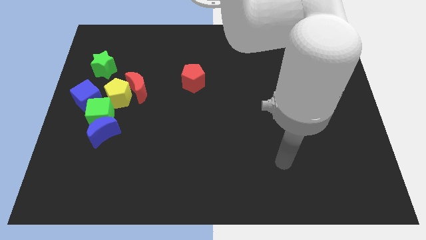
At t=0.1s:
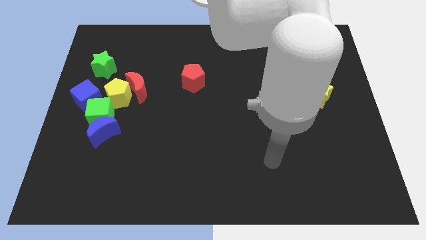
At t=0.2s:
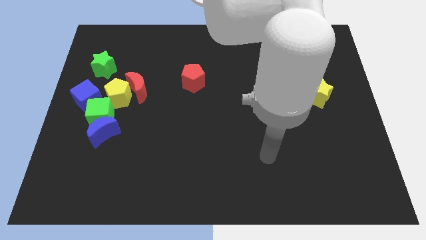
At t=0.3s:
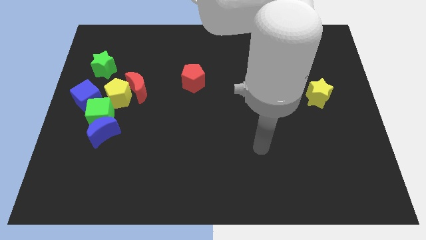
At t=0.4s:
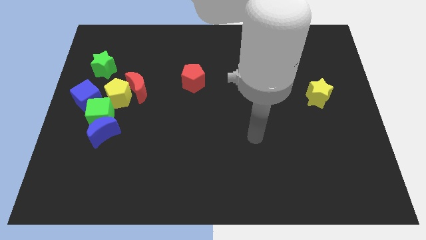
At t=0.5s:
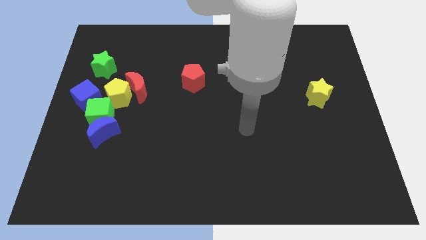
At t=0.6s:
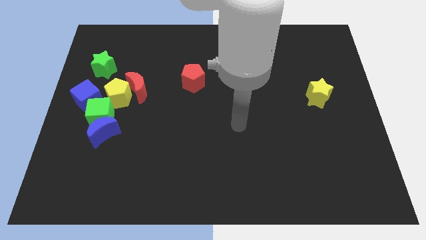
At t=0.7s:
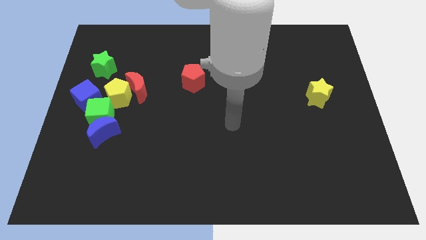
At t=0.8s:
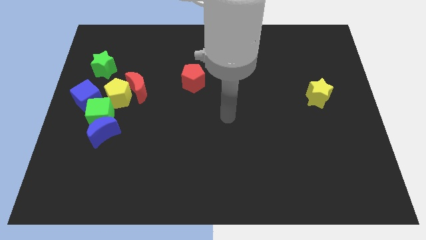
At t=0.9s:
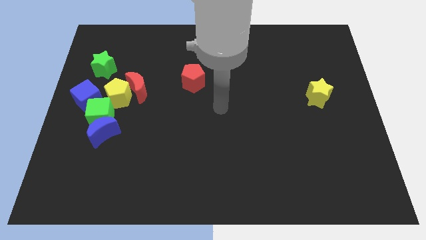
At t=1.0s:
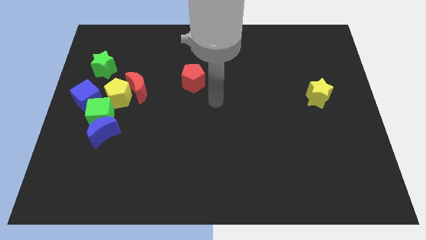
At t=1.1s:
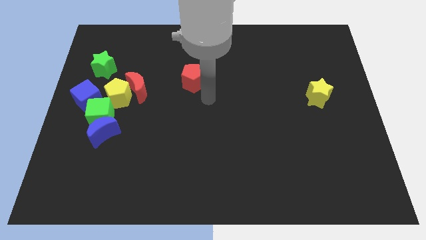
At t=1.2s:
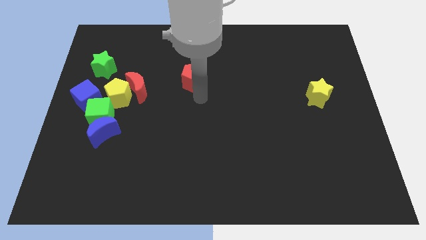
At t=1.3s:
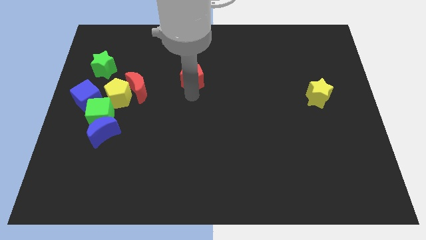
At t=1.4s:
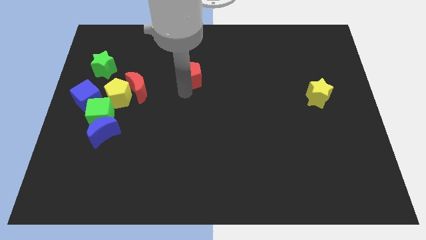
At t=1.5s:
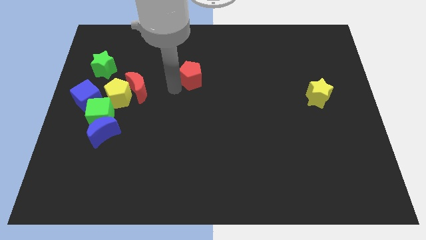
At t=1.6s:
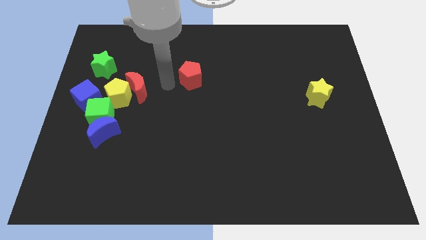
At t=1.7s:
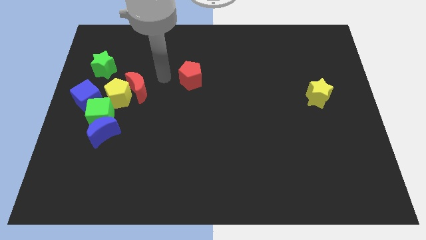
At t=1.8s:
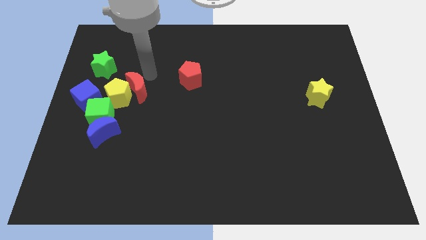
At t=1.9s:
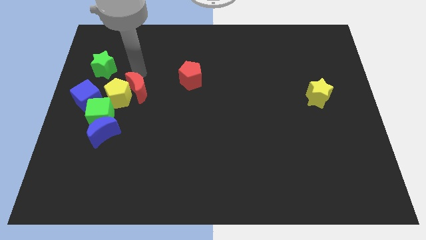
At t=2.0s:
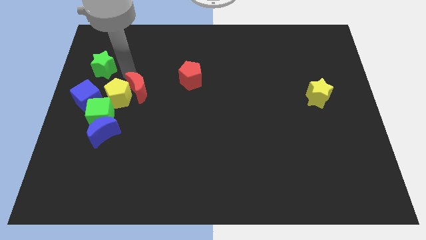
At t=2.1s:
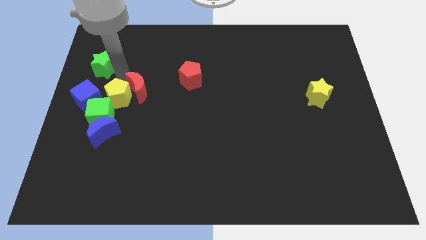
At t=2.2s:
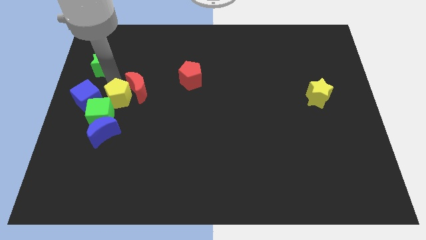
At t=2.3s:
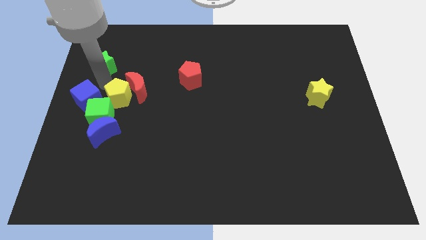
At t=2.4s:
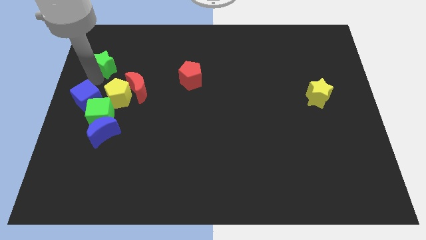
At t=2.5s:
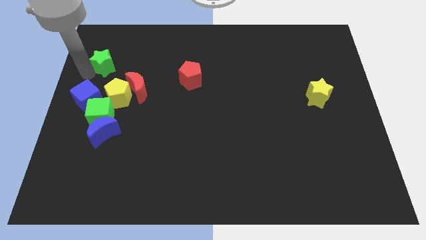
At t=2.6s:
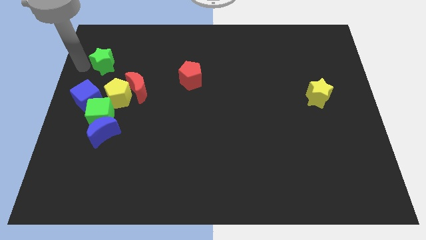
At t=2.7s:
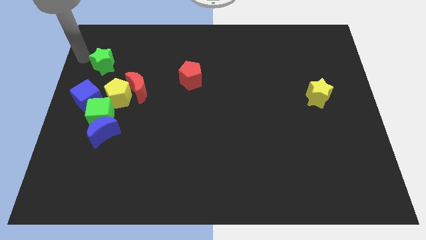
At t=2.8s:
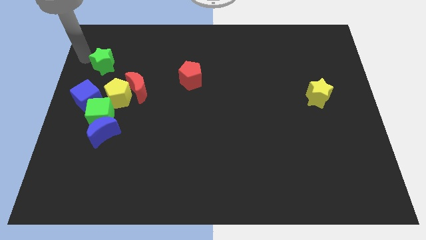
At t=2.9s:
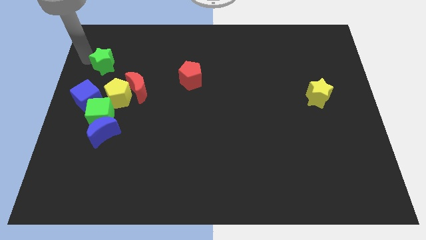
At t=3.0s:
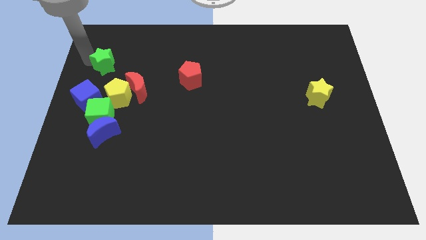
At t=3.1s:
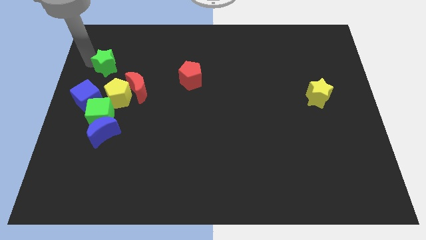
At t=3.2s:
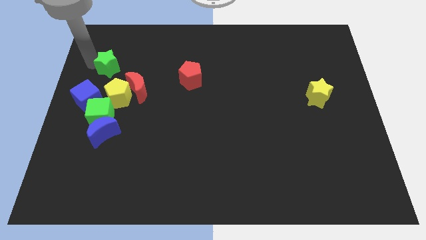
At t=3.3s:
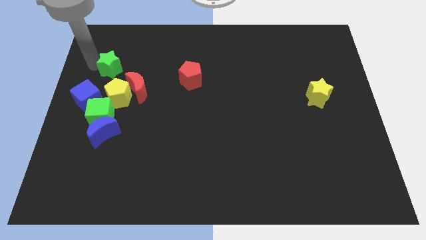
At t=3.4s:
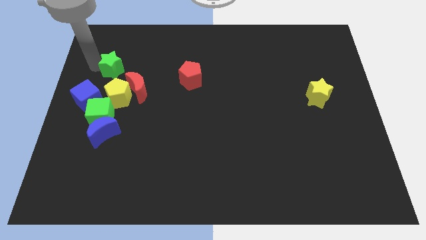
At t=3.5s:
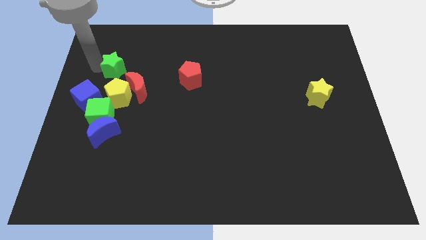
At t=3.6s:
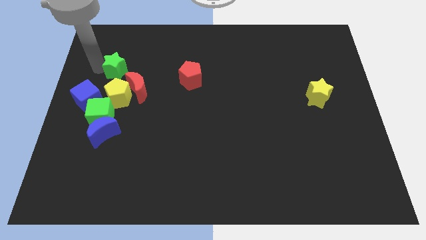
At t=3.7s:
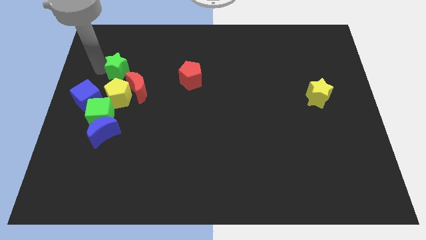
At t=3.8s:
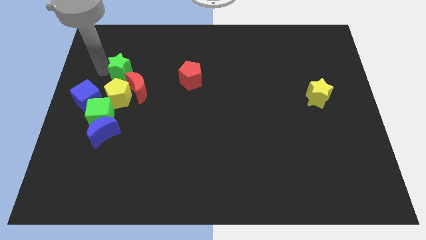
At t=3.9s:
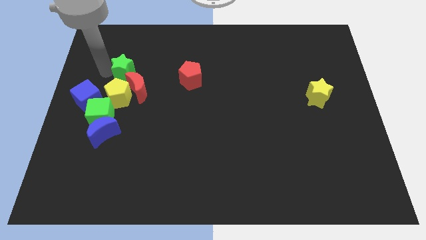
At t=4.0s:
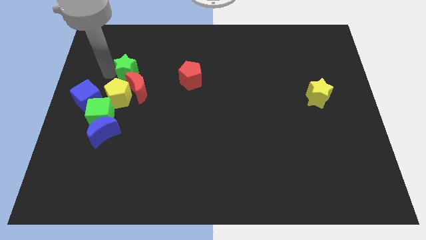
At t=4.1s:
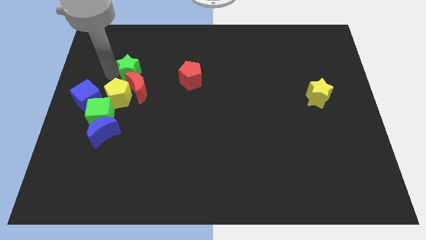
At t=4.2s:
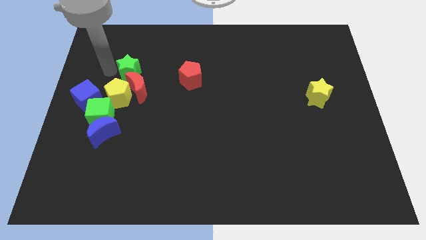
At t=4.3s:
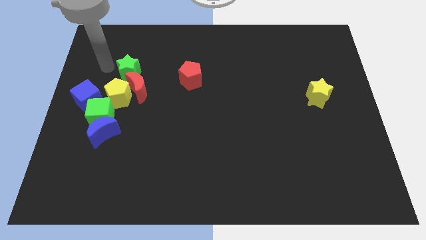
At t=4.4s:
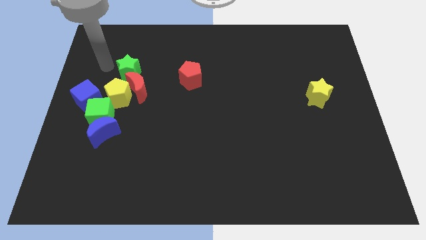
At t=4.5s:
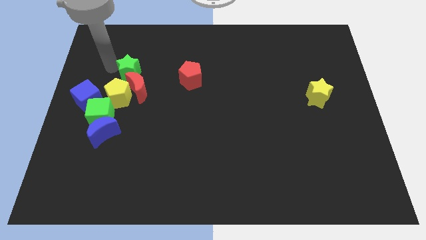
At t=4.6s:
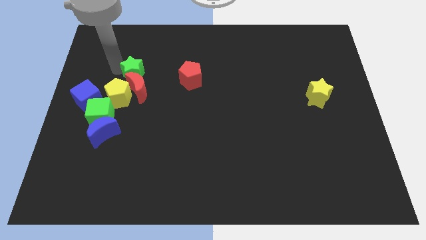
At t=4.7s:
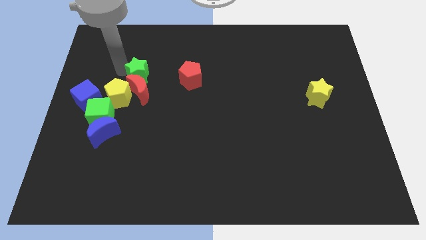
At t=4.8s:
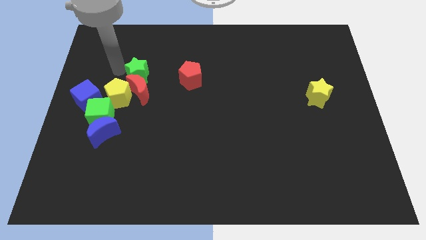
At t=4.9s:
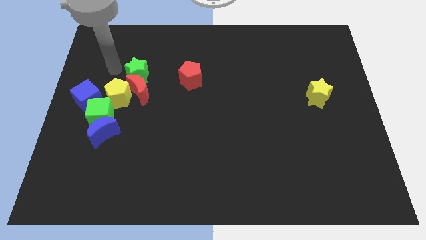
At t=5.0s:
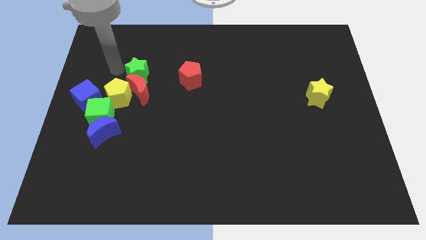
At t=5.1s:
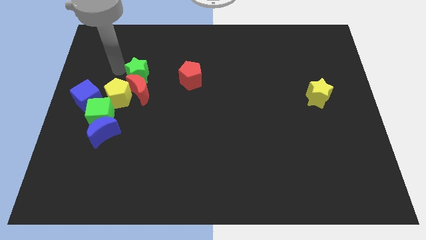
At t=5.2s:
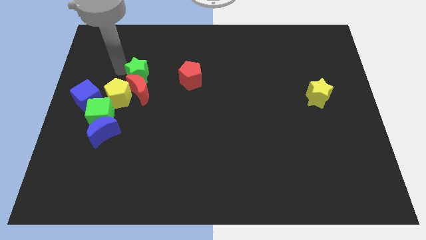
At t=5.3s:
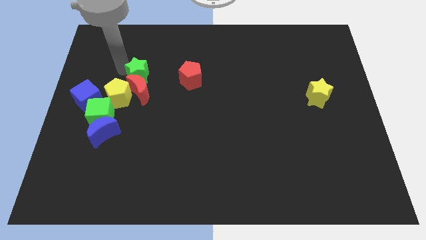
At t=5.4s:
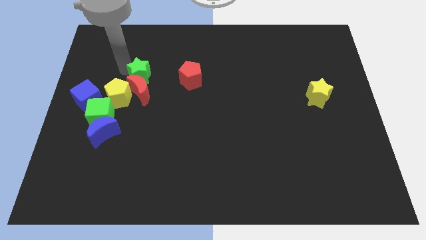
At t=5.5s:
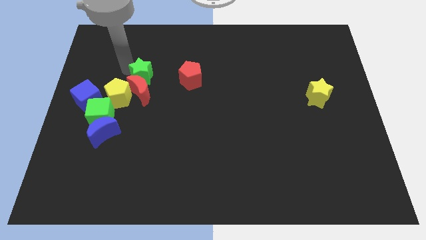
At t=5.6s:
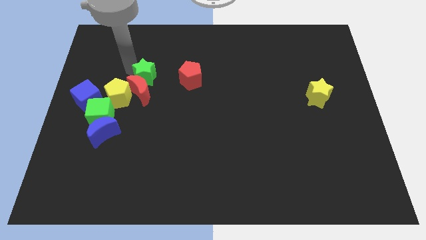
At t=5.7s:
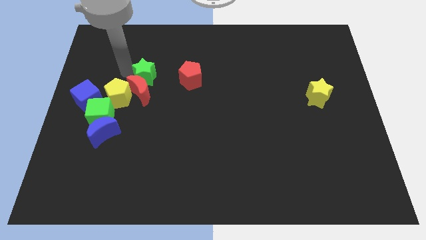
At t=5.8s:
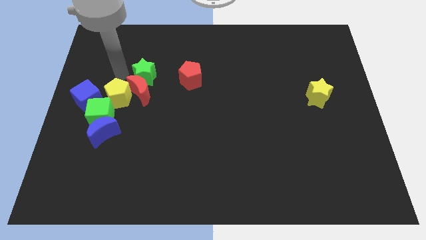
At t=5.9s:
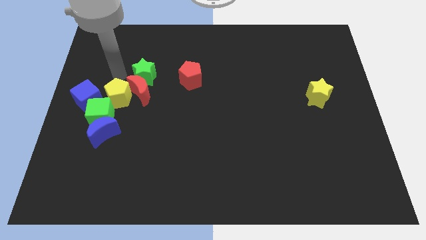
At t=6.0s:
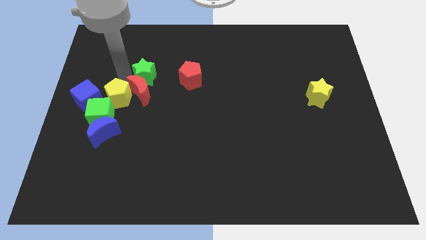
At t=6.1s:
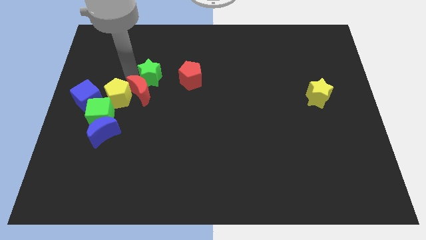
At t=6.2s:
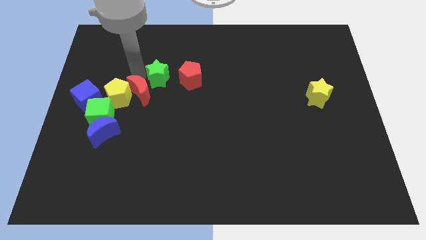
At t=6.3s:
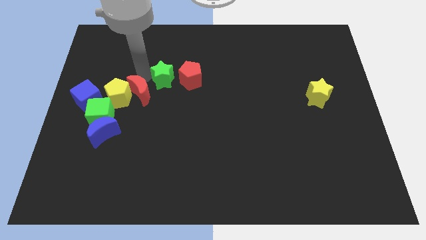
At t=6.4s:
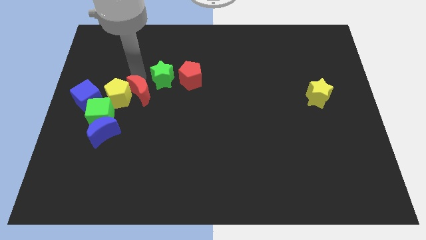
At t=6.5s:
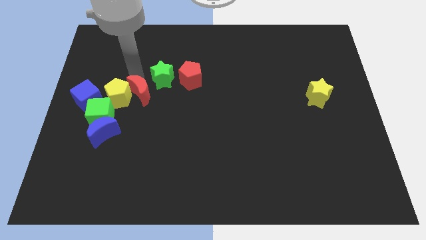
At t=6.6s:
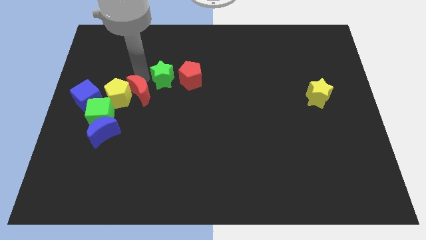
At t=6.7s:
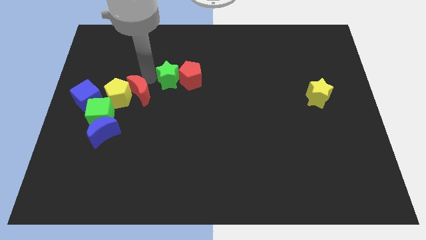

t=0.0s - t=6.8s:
move the green star to the red pentagon
